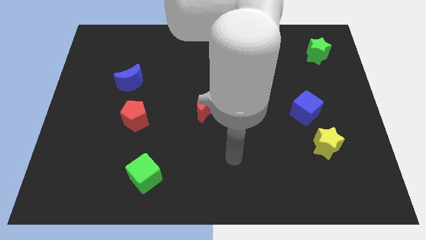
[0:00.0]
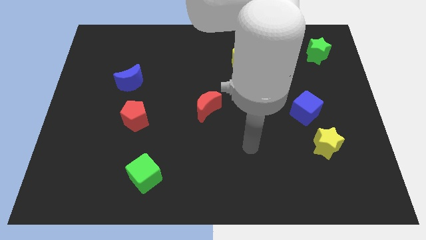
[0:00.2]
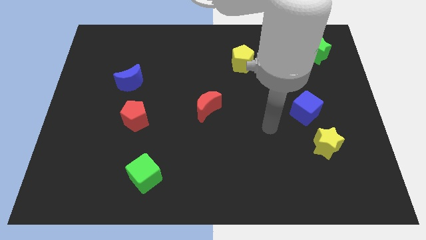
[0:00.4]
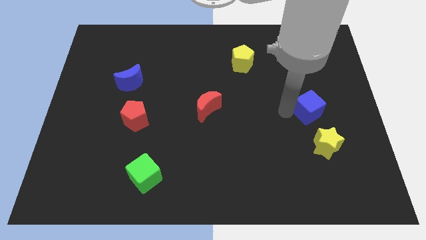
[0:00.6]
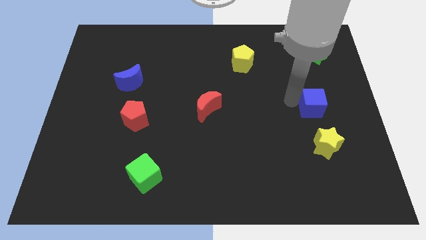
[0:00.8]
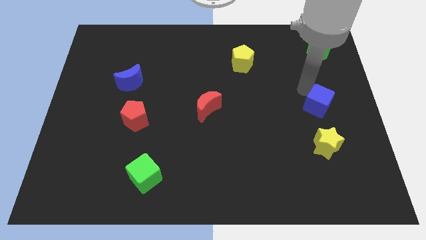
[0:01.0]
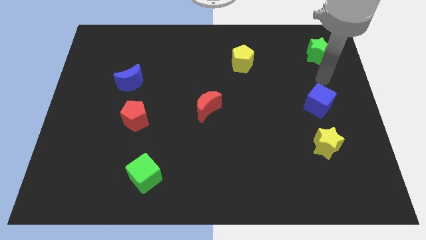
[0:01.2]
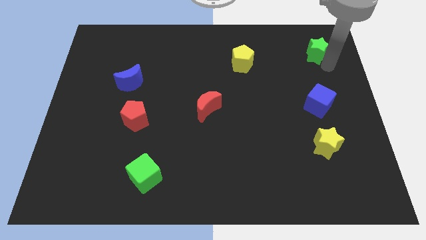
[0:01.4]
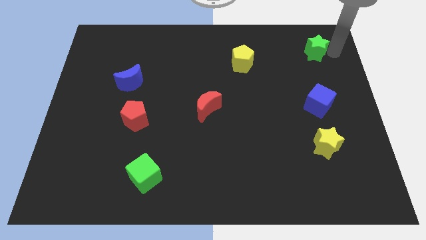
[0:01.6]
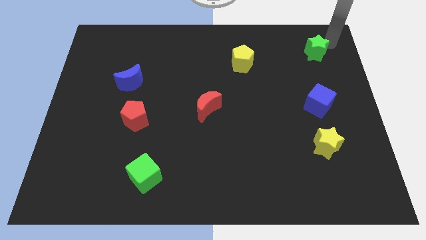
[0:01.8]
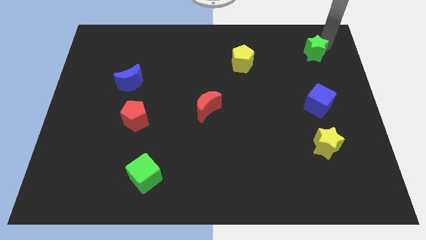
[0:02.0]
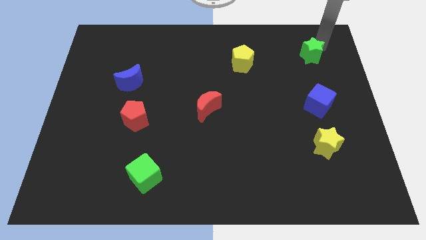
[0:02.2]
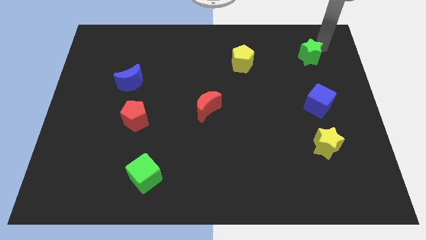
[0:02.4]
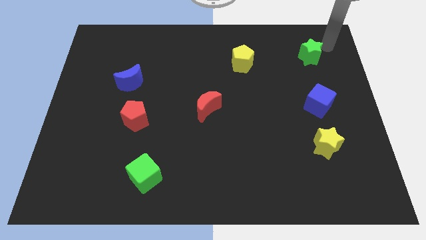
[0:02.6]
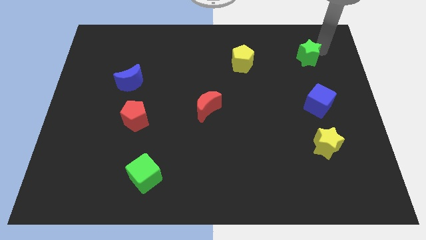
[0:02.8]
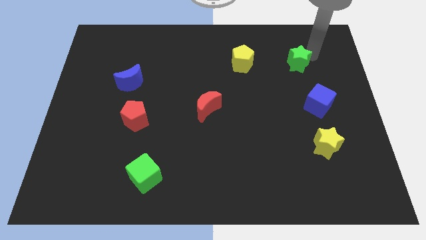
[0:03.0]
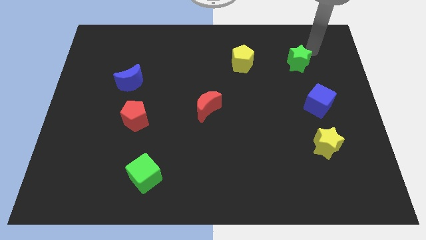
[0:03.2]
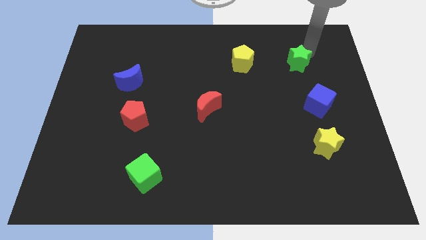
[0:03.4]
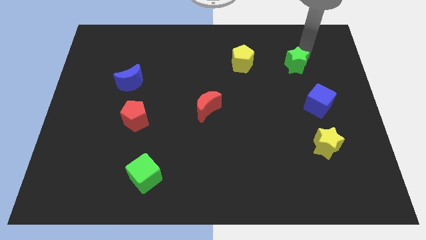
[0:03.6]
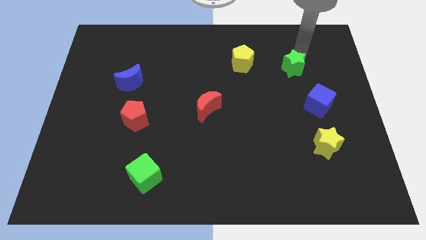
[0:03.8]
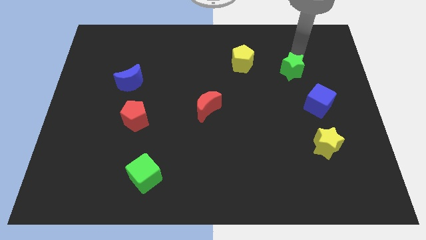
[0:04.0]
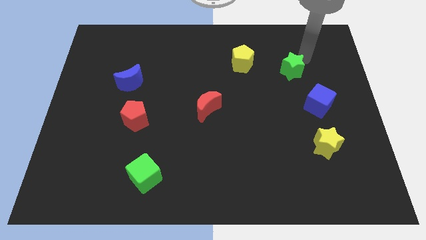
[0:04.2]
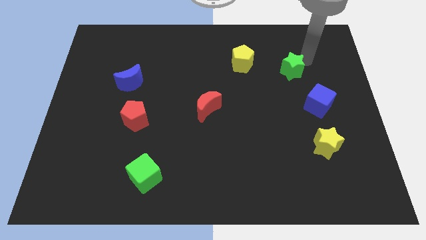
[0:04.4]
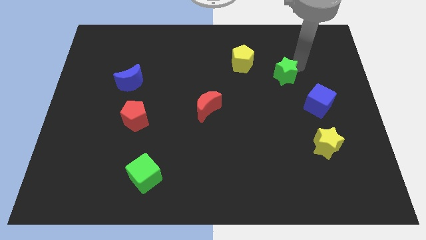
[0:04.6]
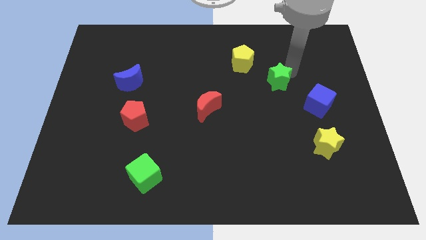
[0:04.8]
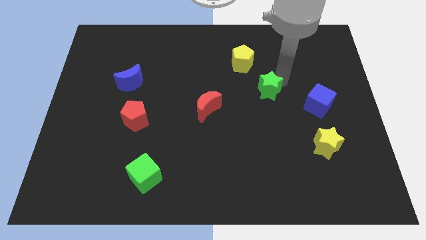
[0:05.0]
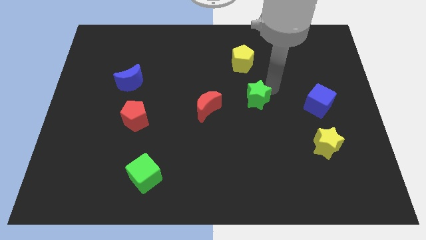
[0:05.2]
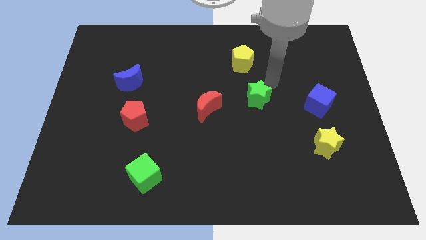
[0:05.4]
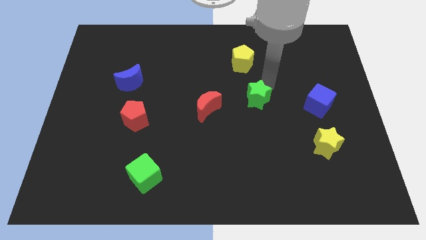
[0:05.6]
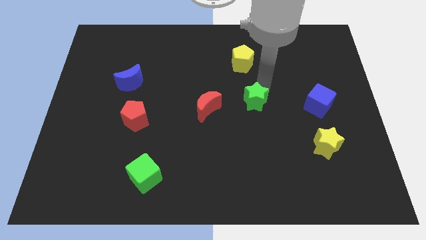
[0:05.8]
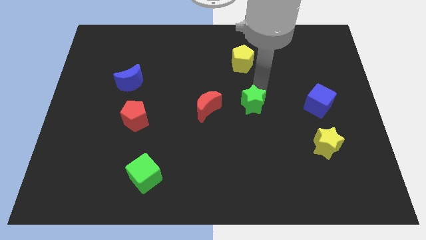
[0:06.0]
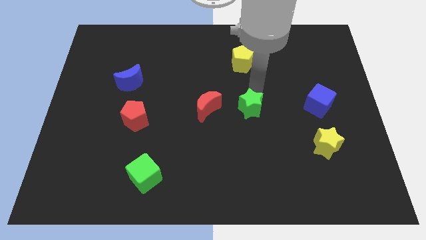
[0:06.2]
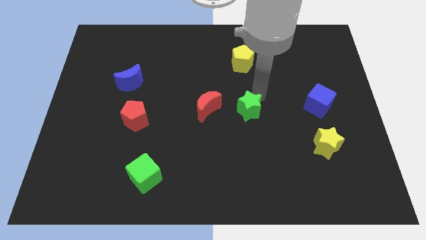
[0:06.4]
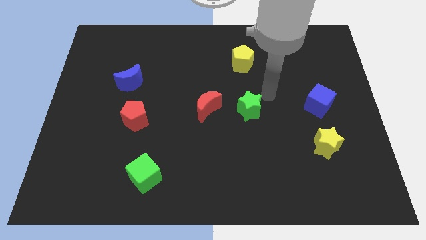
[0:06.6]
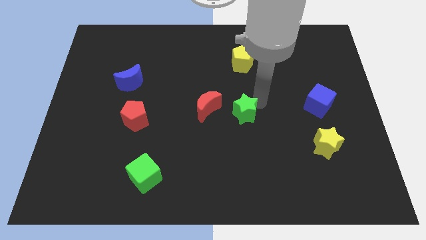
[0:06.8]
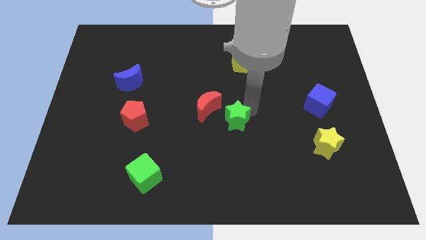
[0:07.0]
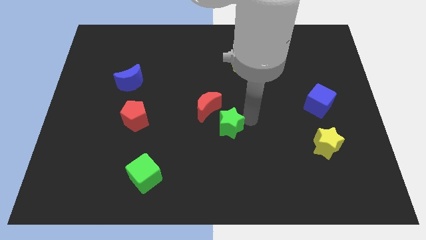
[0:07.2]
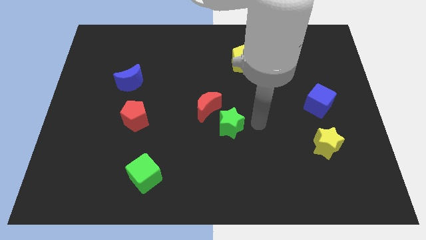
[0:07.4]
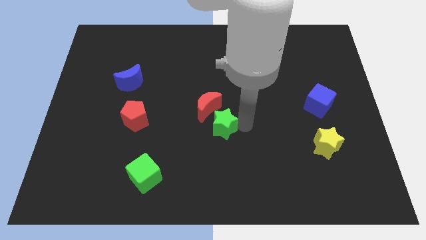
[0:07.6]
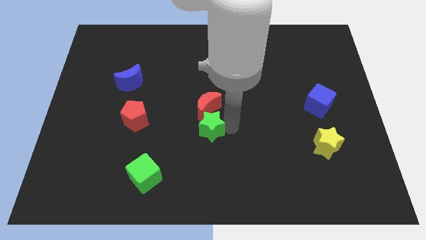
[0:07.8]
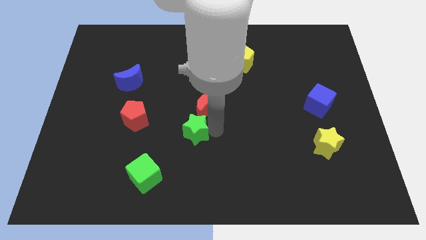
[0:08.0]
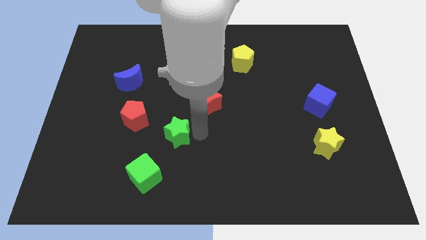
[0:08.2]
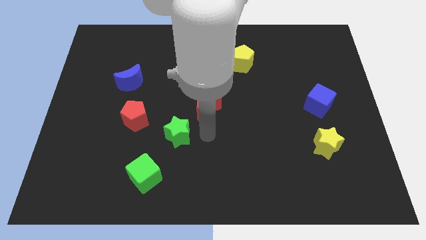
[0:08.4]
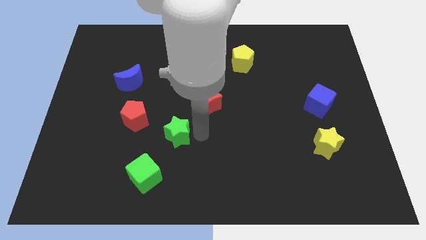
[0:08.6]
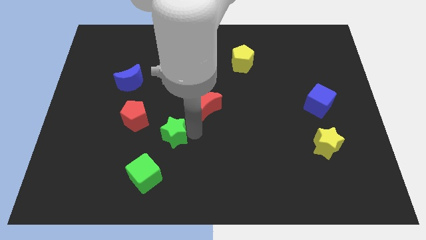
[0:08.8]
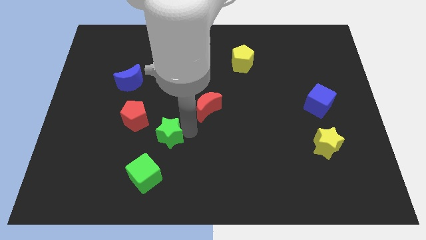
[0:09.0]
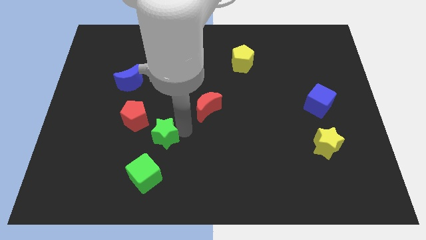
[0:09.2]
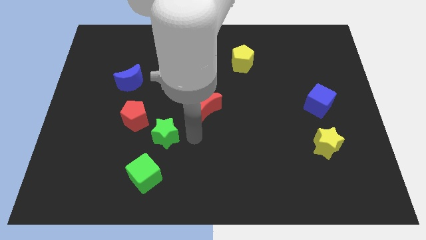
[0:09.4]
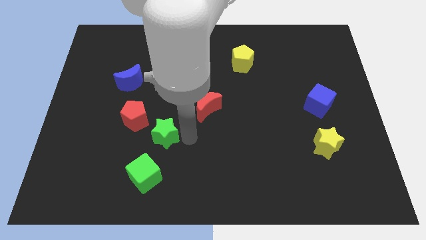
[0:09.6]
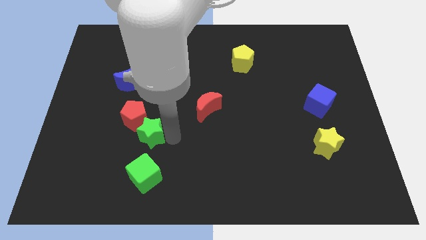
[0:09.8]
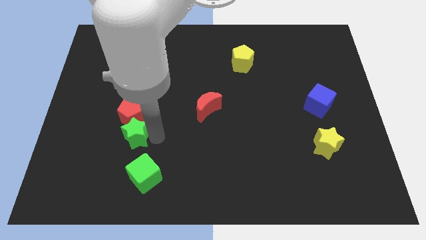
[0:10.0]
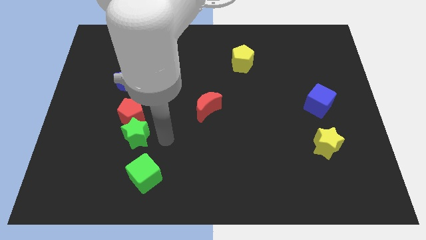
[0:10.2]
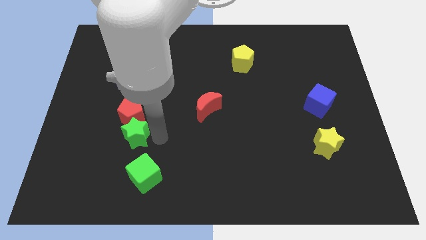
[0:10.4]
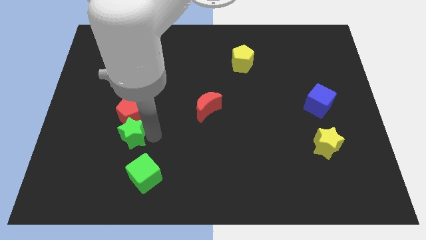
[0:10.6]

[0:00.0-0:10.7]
slide the green star to the bottom left of the red pentagon

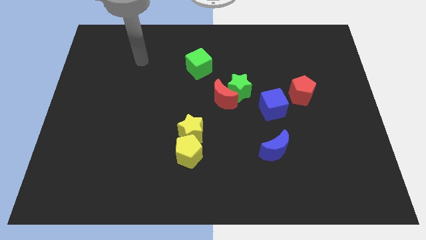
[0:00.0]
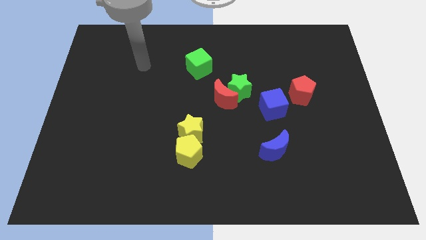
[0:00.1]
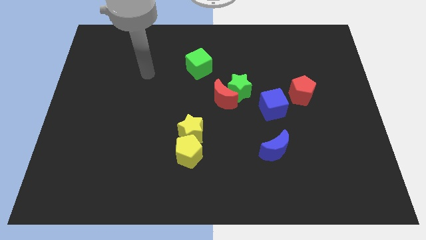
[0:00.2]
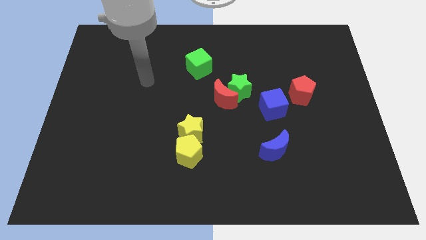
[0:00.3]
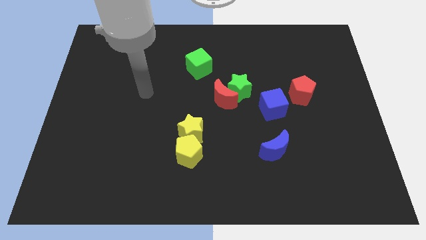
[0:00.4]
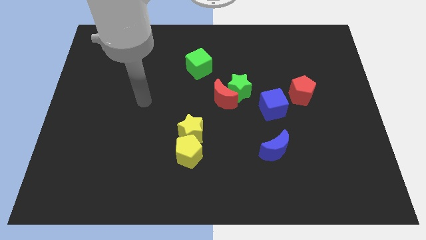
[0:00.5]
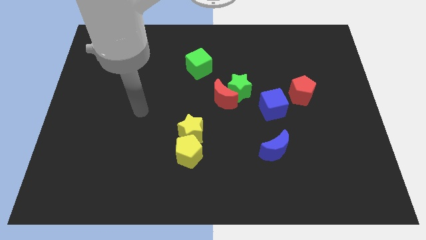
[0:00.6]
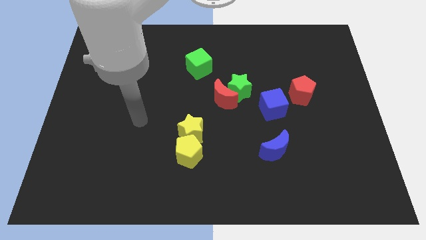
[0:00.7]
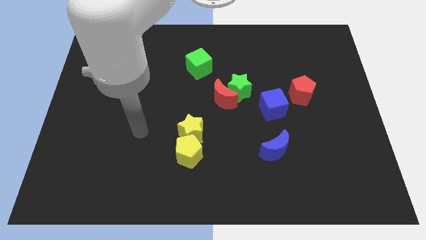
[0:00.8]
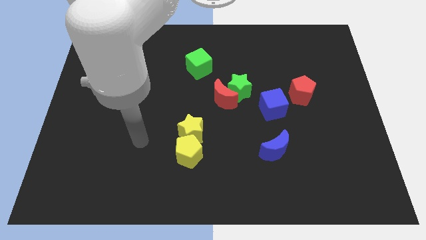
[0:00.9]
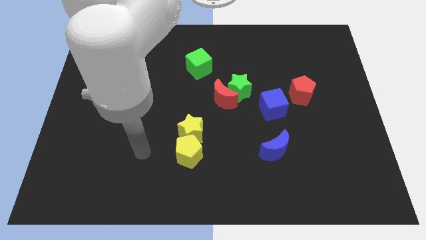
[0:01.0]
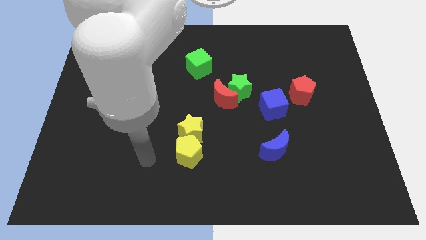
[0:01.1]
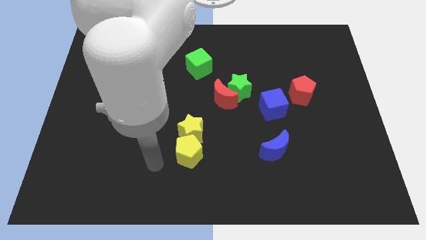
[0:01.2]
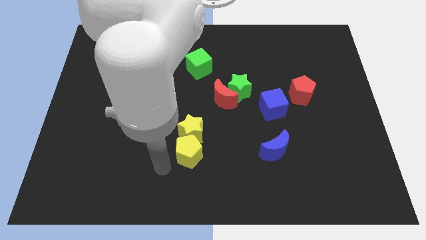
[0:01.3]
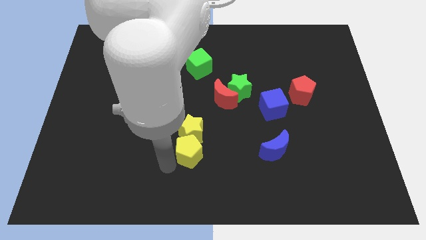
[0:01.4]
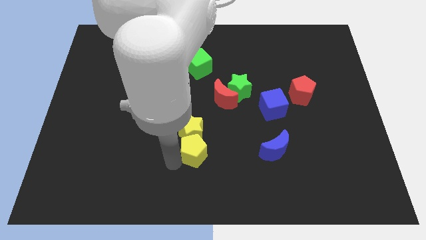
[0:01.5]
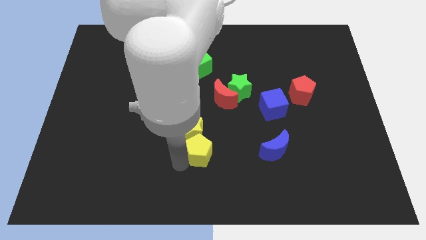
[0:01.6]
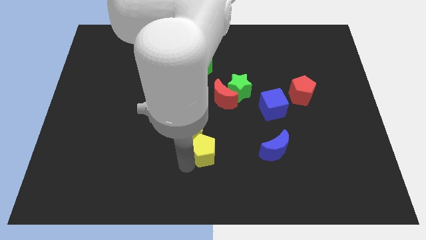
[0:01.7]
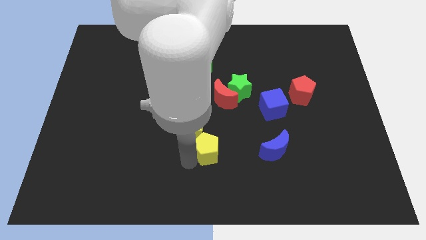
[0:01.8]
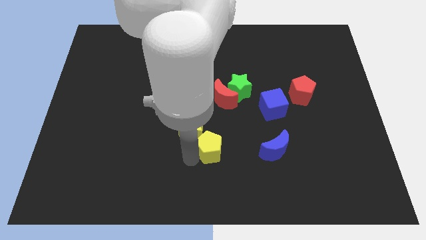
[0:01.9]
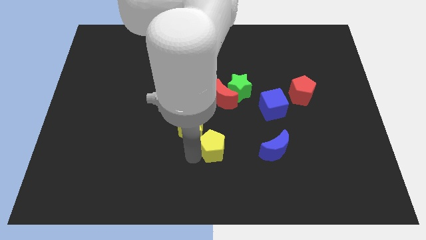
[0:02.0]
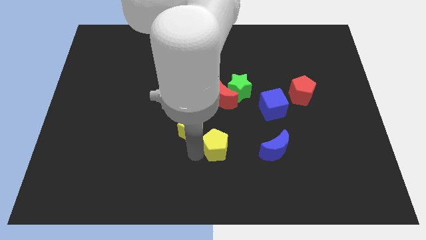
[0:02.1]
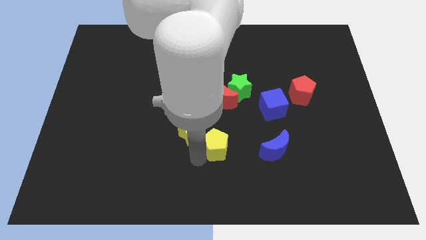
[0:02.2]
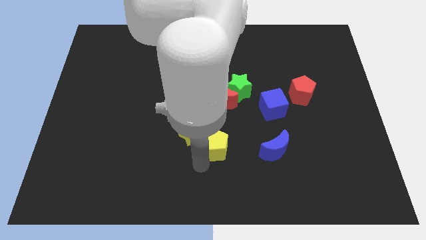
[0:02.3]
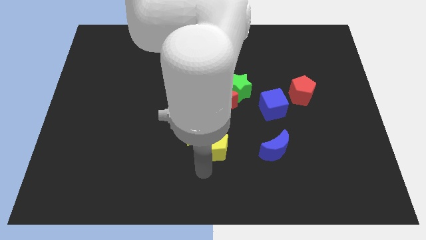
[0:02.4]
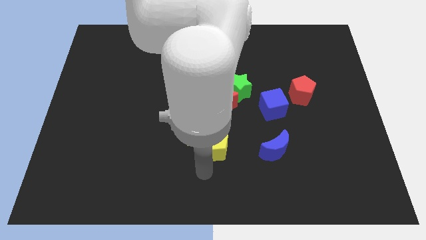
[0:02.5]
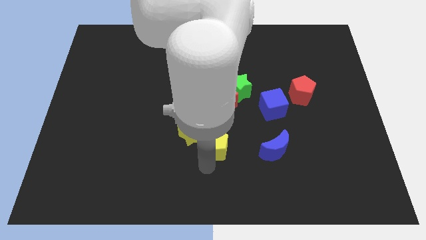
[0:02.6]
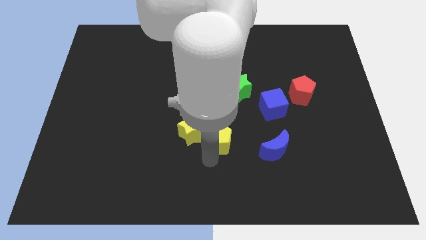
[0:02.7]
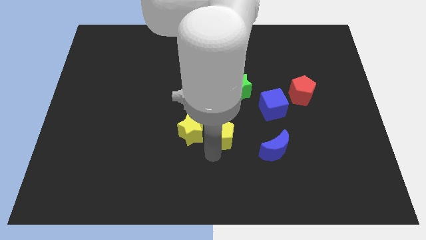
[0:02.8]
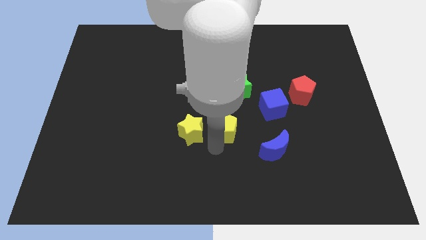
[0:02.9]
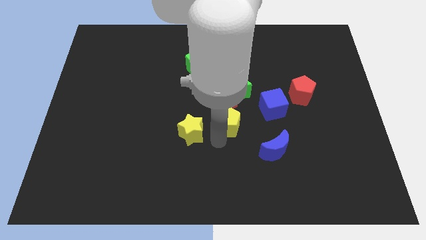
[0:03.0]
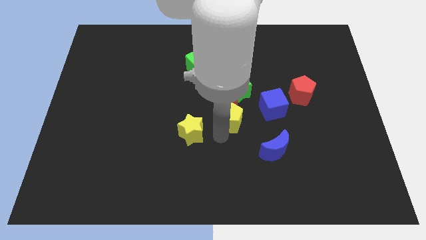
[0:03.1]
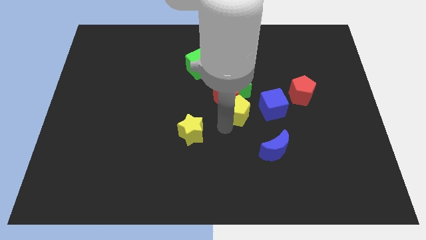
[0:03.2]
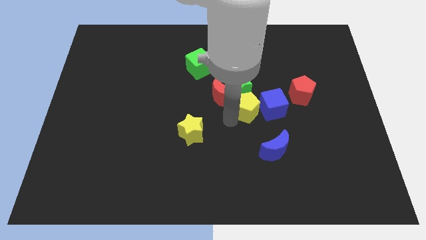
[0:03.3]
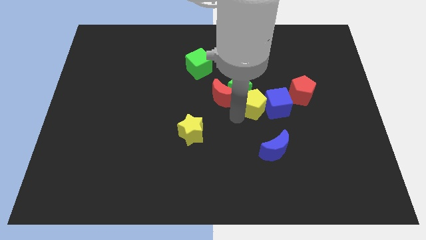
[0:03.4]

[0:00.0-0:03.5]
push the yellow pentagon just left of the red pentagon
